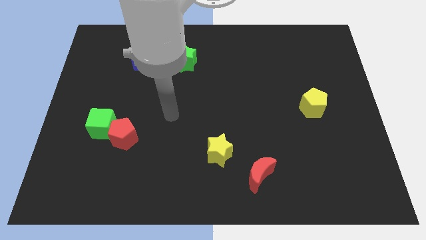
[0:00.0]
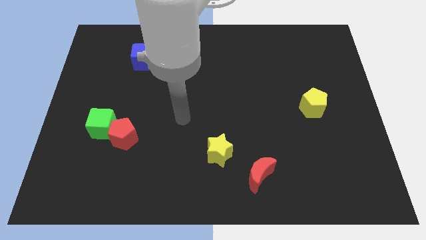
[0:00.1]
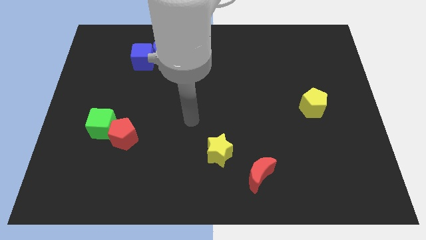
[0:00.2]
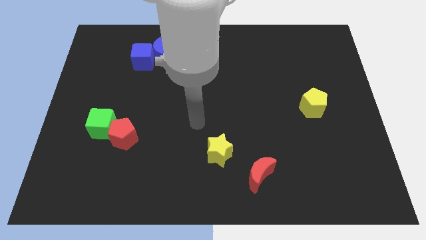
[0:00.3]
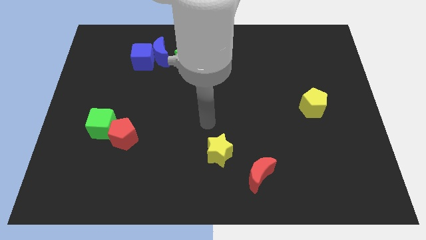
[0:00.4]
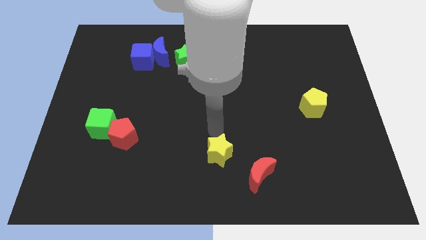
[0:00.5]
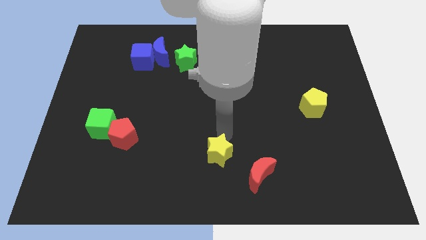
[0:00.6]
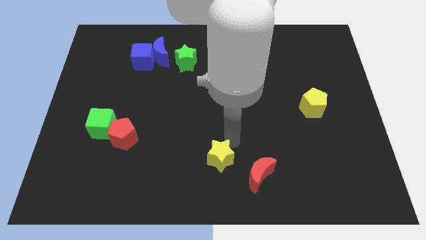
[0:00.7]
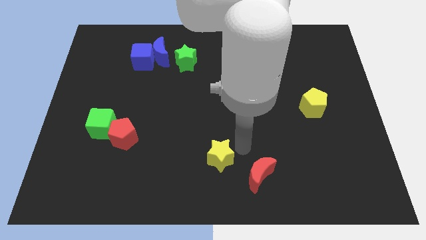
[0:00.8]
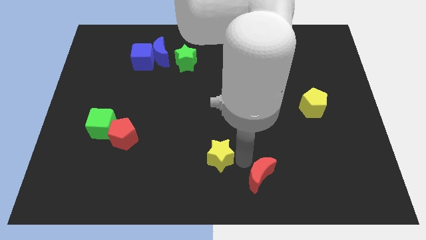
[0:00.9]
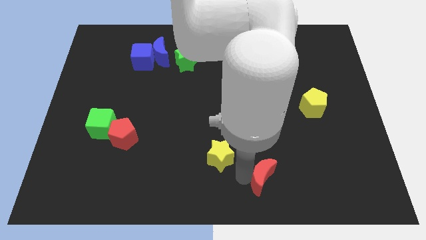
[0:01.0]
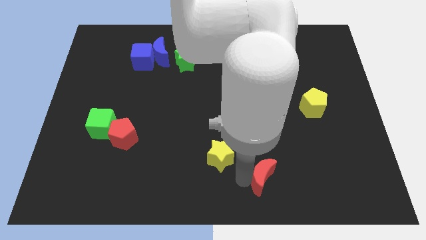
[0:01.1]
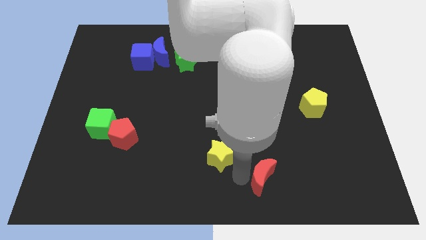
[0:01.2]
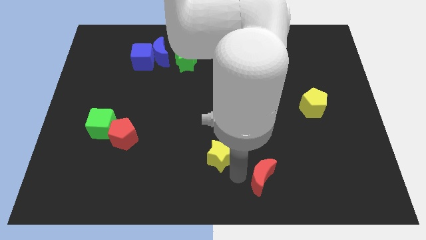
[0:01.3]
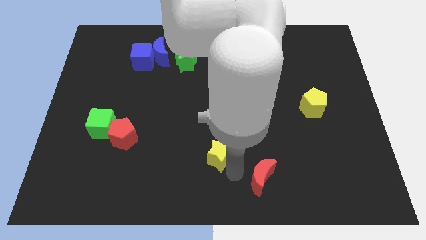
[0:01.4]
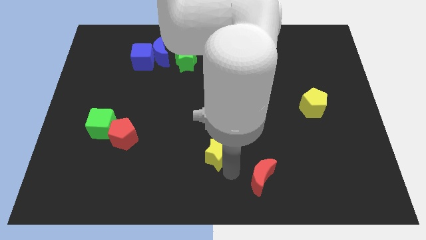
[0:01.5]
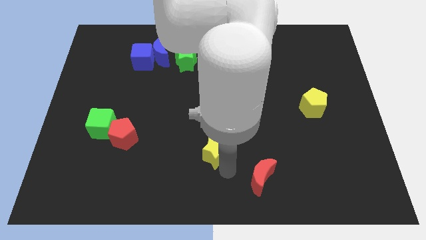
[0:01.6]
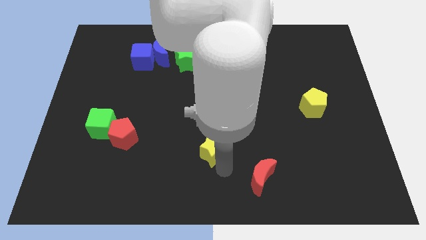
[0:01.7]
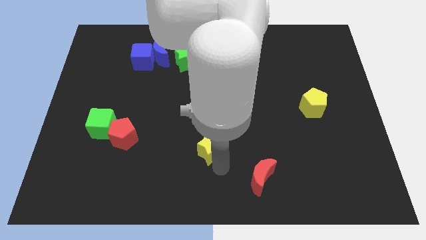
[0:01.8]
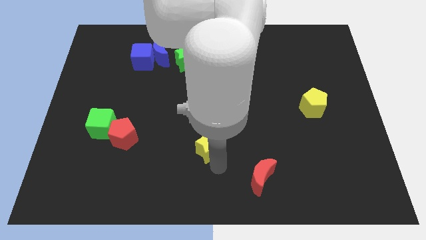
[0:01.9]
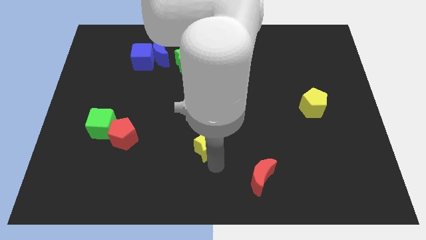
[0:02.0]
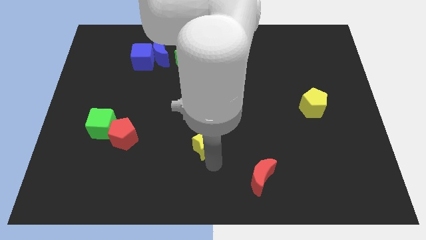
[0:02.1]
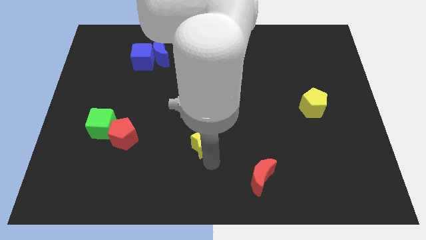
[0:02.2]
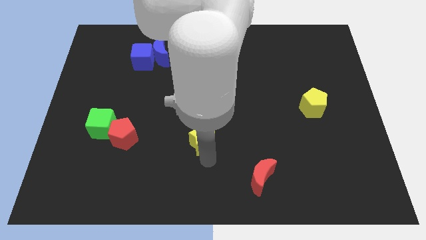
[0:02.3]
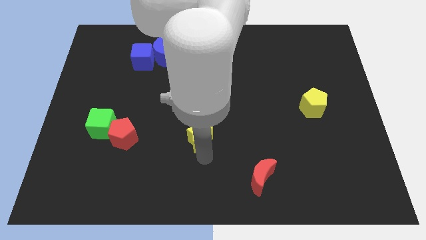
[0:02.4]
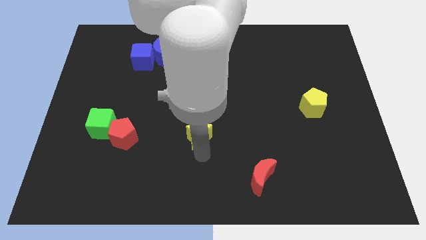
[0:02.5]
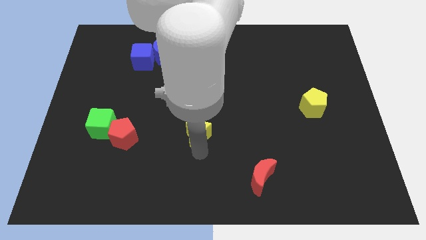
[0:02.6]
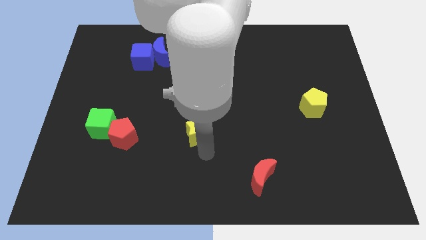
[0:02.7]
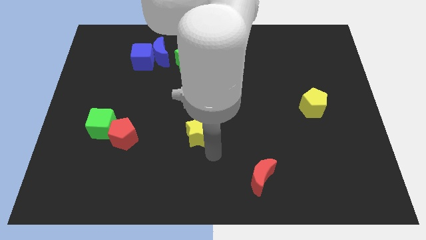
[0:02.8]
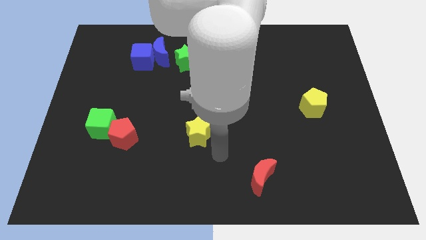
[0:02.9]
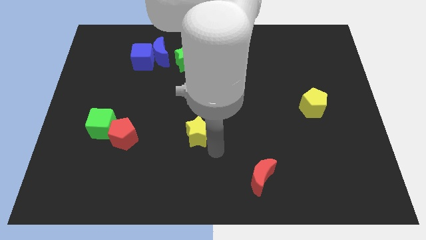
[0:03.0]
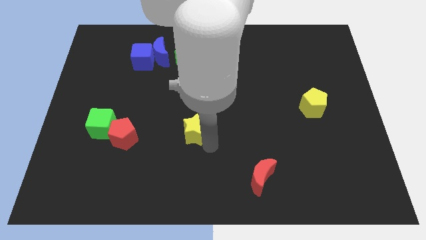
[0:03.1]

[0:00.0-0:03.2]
push the yellow star diagonally upwards and to the left slightly

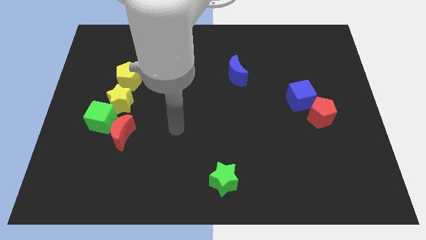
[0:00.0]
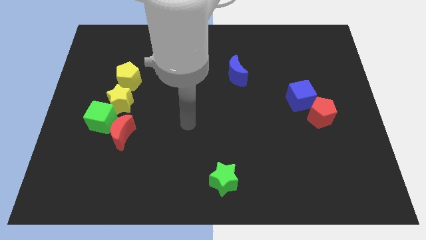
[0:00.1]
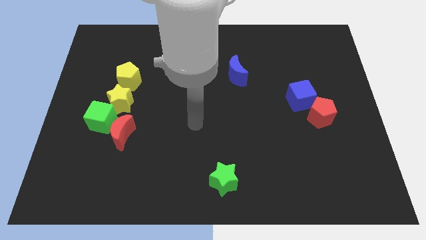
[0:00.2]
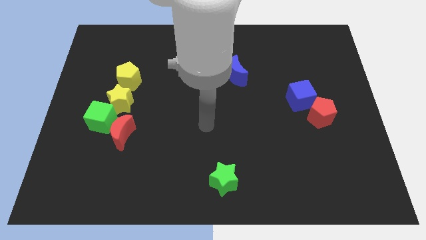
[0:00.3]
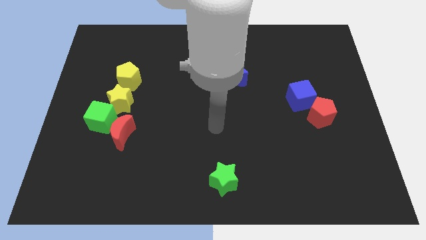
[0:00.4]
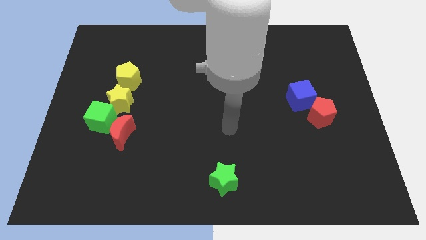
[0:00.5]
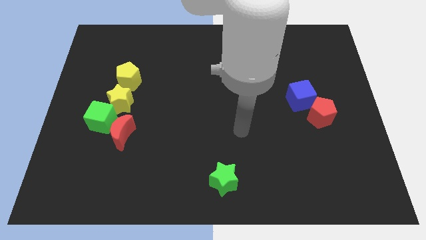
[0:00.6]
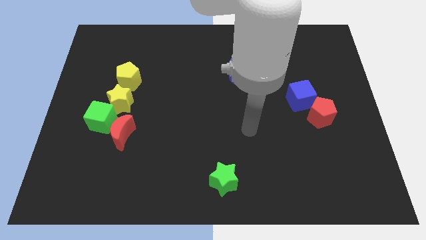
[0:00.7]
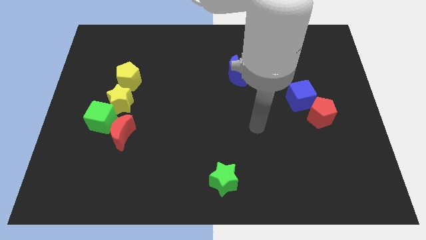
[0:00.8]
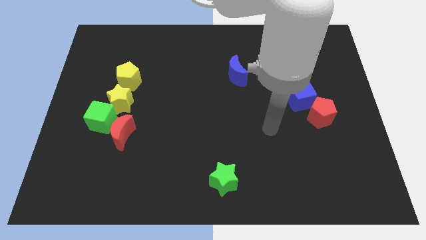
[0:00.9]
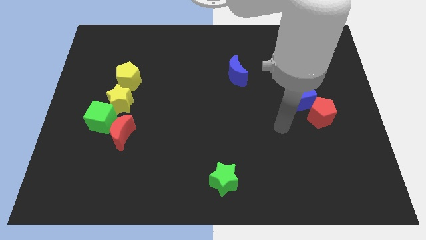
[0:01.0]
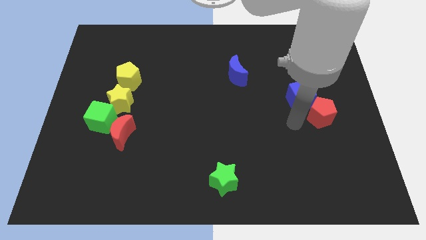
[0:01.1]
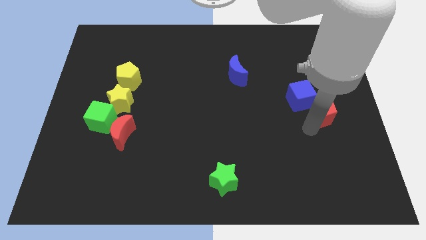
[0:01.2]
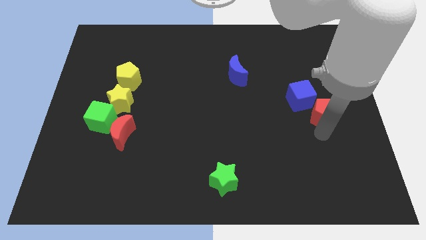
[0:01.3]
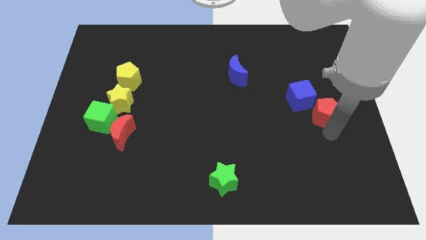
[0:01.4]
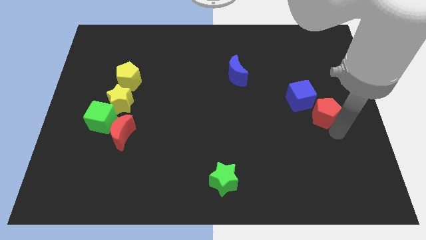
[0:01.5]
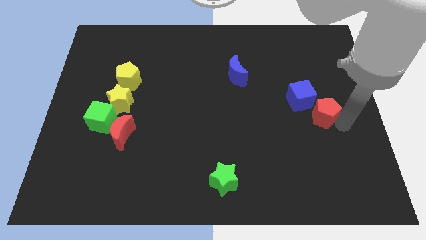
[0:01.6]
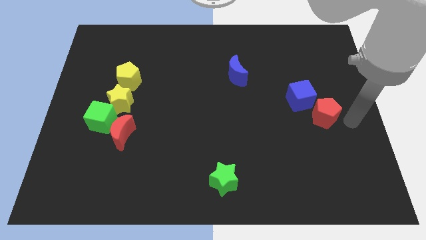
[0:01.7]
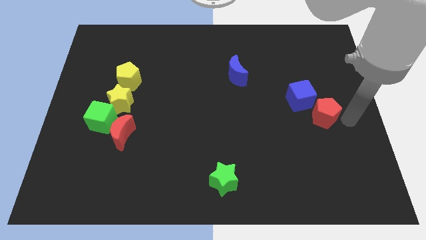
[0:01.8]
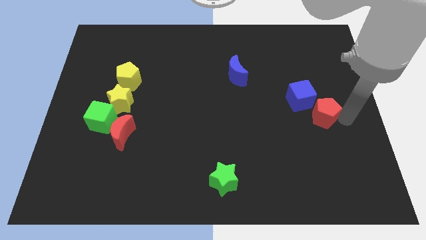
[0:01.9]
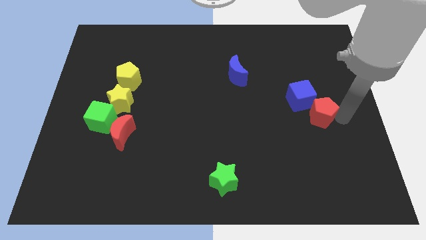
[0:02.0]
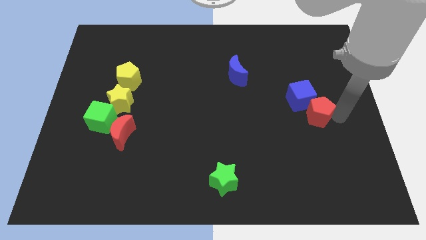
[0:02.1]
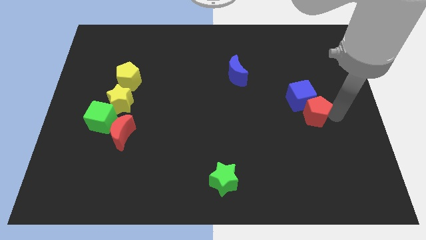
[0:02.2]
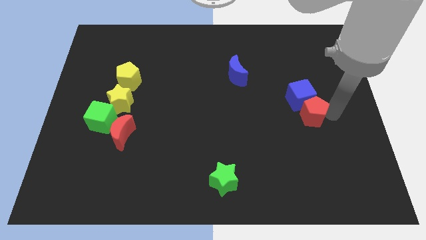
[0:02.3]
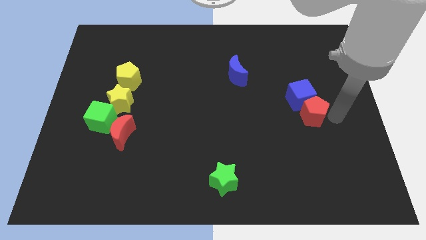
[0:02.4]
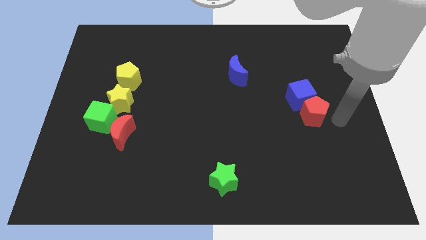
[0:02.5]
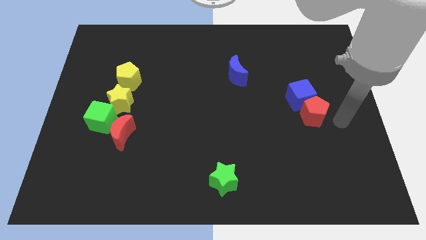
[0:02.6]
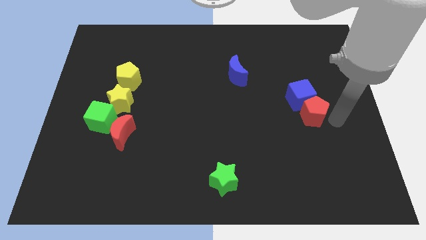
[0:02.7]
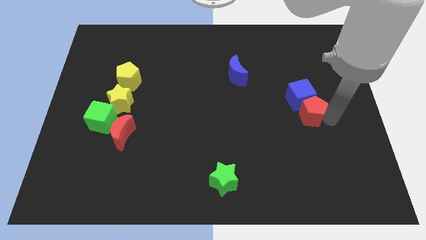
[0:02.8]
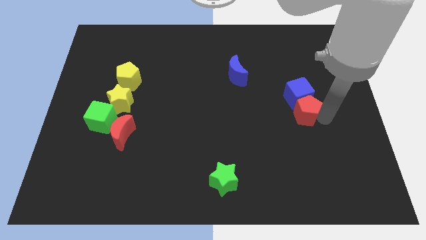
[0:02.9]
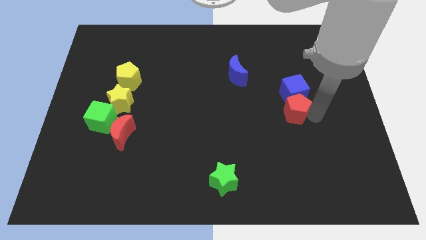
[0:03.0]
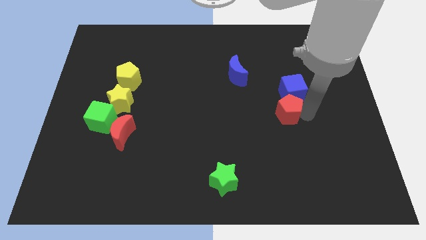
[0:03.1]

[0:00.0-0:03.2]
push the red pentagon a bit left

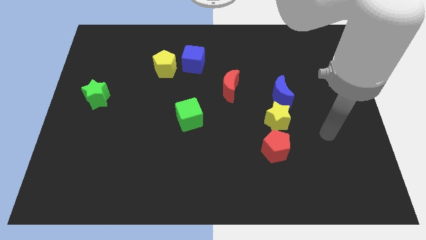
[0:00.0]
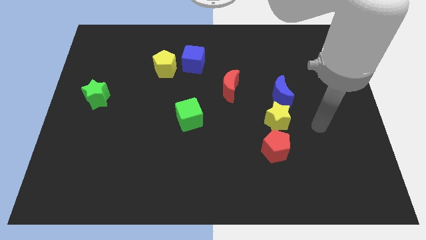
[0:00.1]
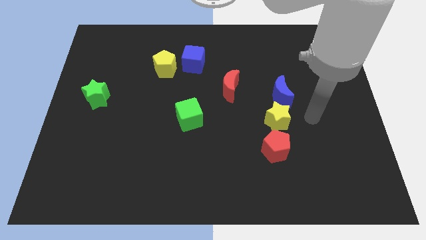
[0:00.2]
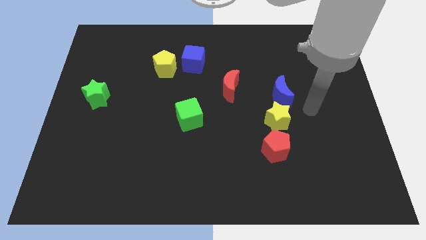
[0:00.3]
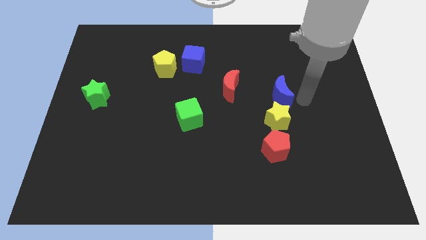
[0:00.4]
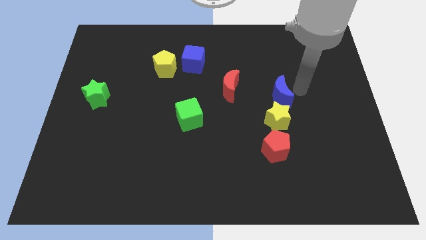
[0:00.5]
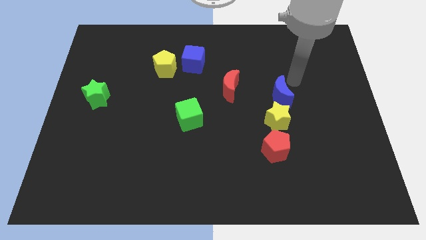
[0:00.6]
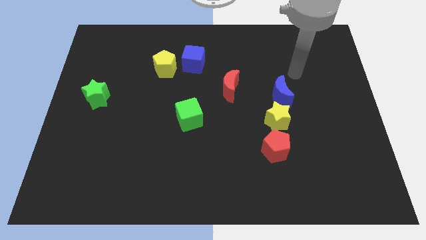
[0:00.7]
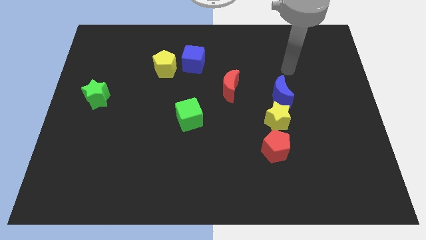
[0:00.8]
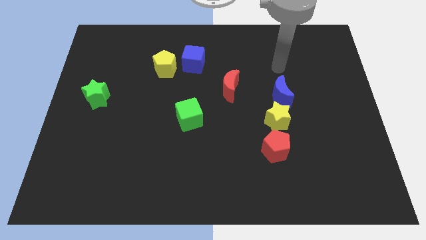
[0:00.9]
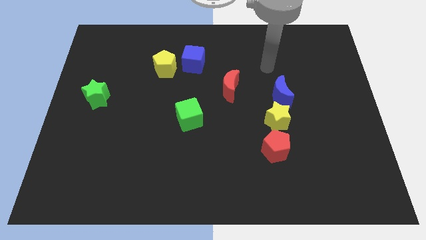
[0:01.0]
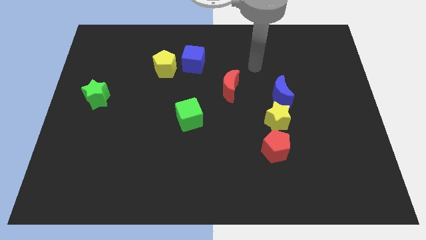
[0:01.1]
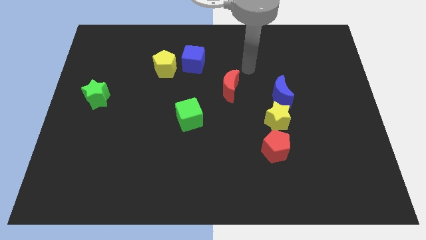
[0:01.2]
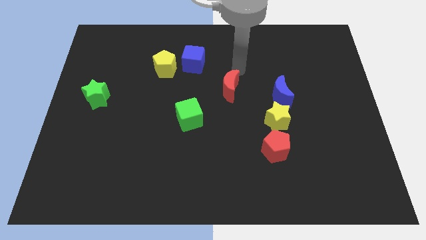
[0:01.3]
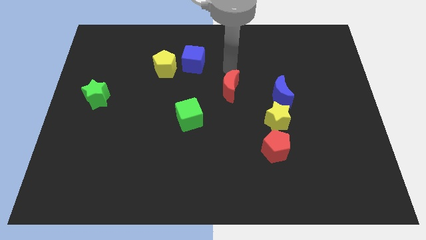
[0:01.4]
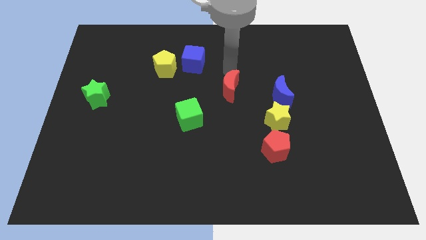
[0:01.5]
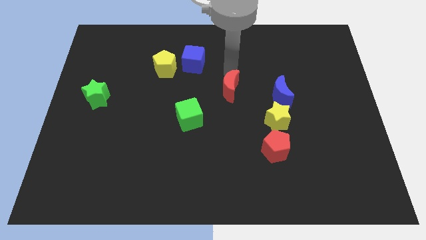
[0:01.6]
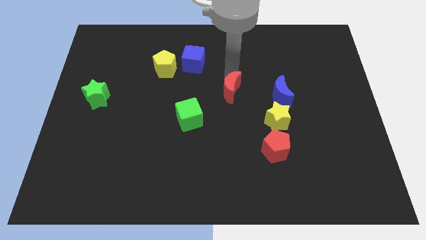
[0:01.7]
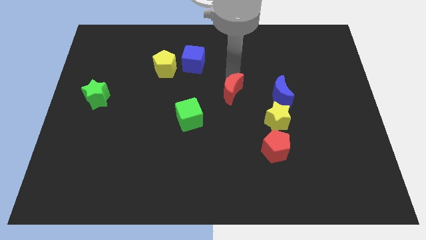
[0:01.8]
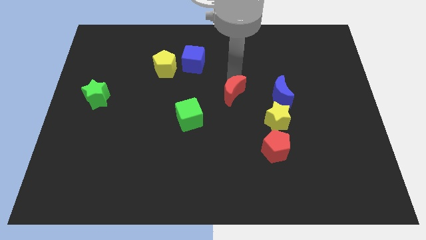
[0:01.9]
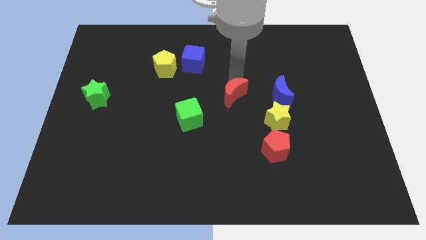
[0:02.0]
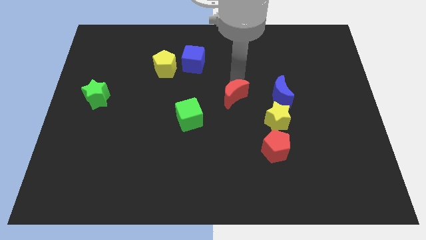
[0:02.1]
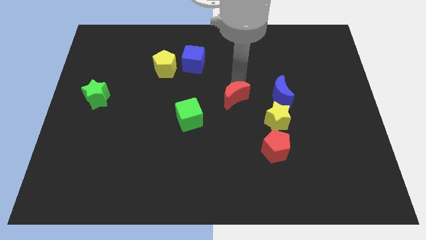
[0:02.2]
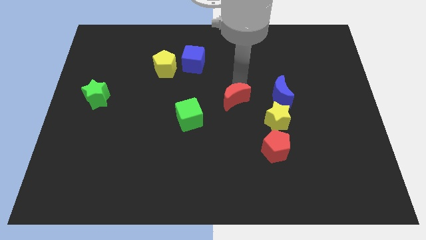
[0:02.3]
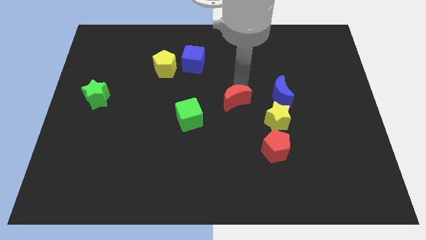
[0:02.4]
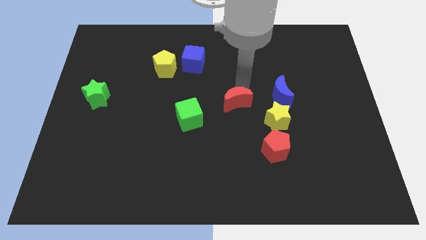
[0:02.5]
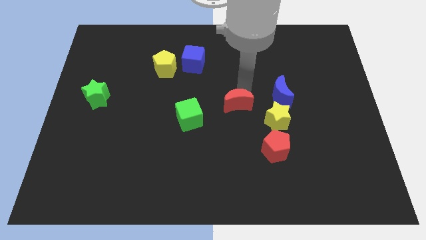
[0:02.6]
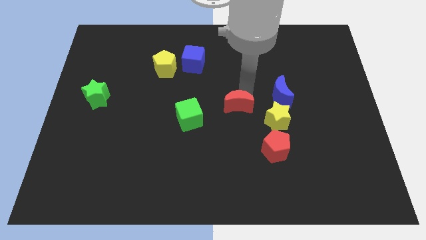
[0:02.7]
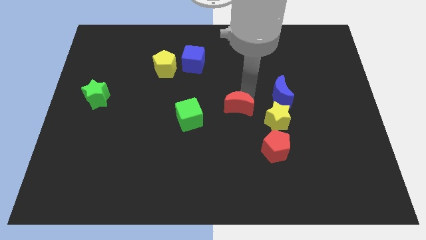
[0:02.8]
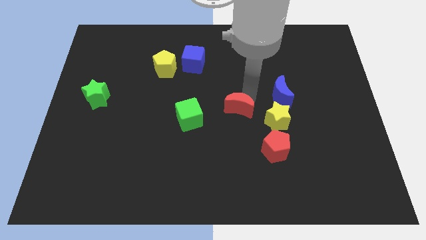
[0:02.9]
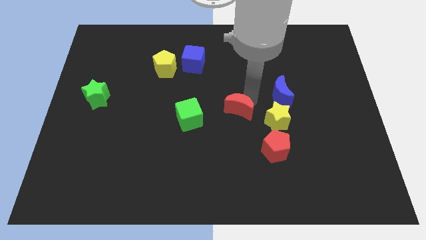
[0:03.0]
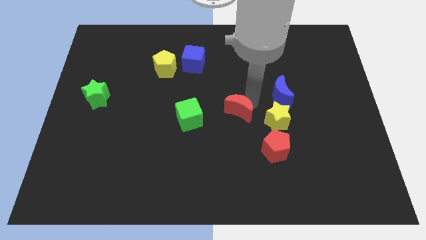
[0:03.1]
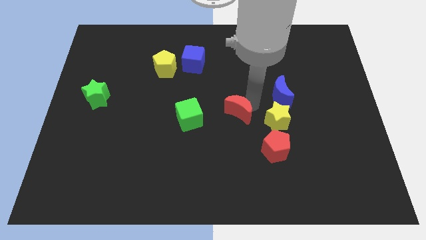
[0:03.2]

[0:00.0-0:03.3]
move the red moon a little downwards
